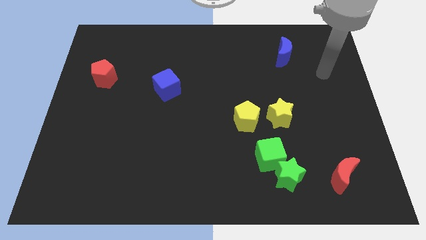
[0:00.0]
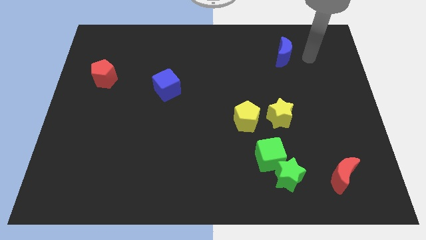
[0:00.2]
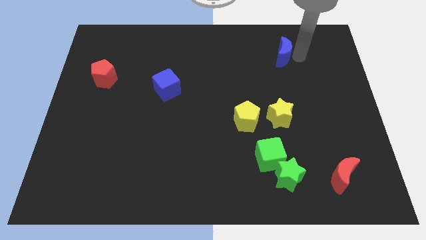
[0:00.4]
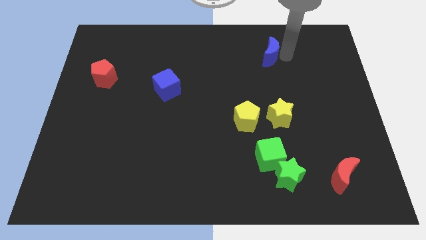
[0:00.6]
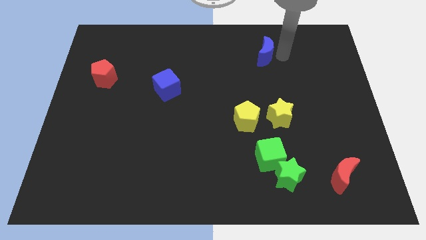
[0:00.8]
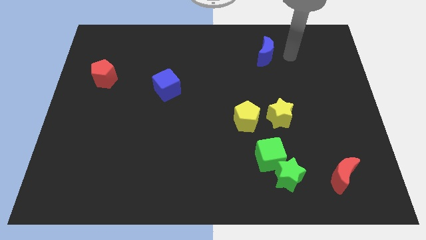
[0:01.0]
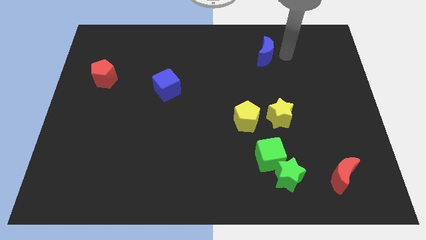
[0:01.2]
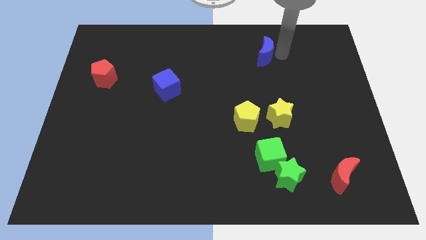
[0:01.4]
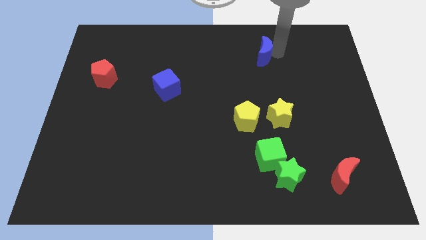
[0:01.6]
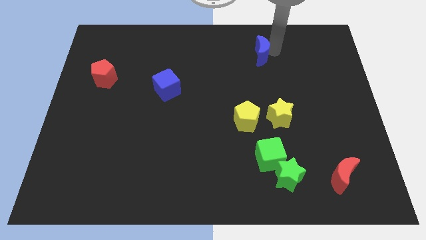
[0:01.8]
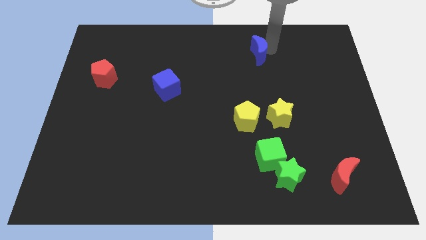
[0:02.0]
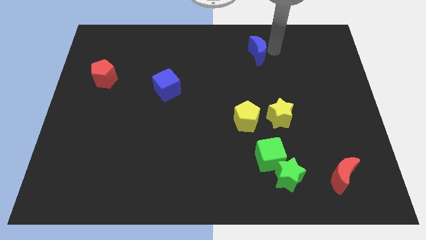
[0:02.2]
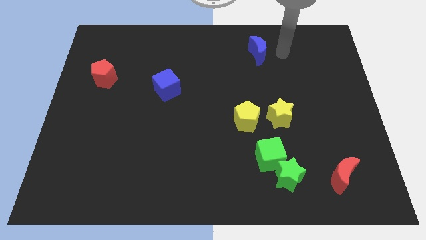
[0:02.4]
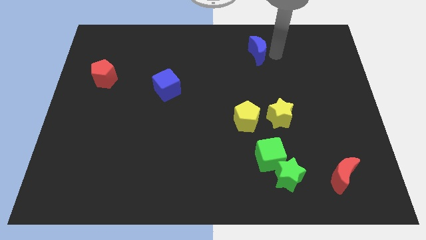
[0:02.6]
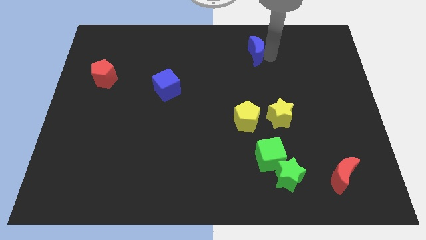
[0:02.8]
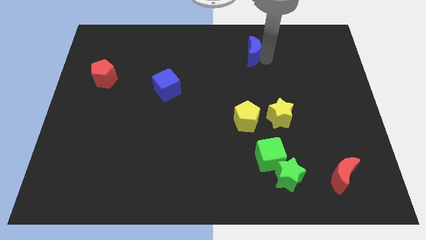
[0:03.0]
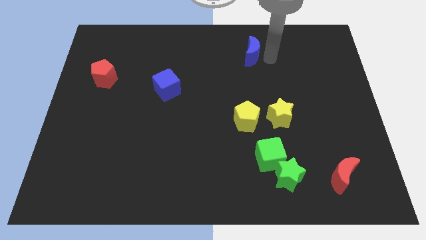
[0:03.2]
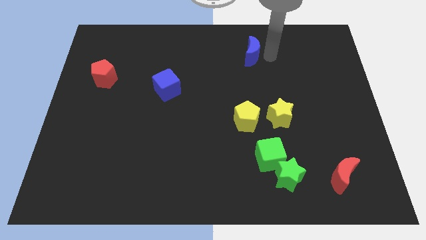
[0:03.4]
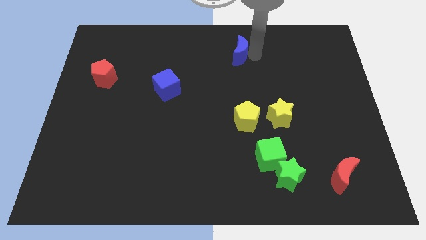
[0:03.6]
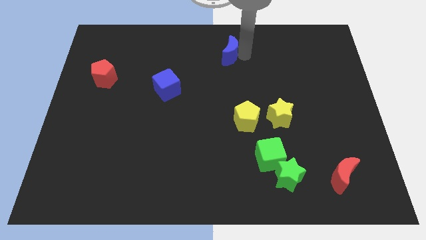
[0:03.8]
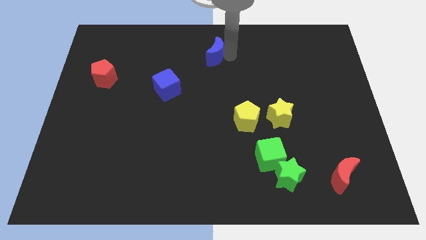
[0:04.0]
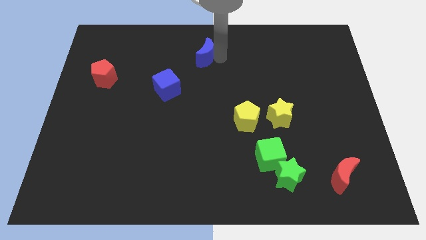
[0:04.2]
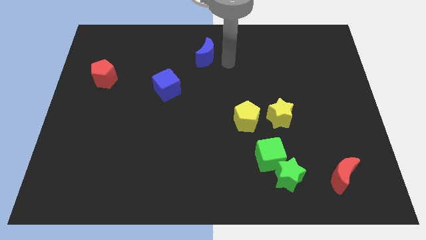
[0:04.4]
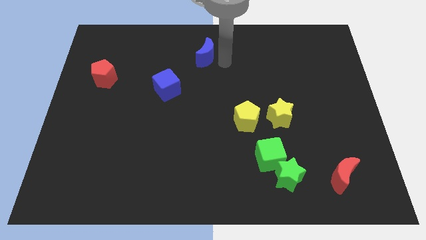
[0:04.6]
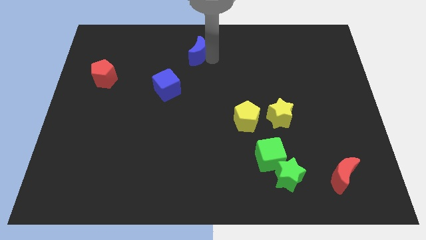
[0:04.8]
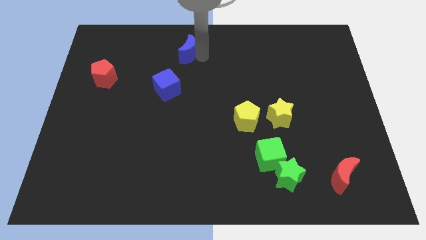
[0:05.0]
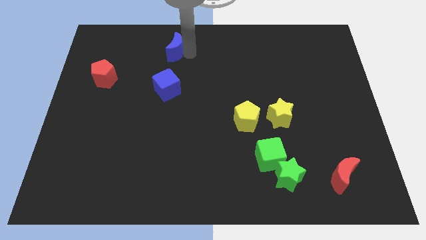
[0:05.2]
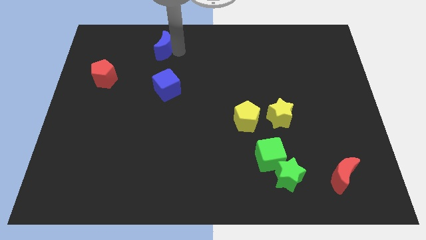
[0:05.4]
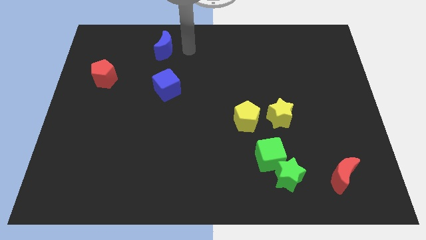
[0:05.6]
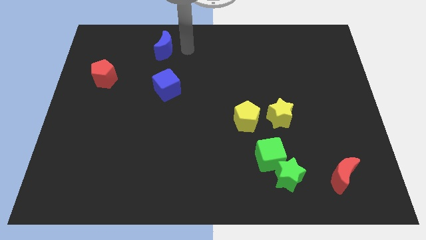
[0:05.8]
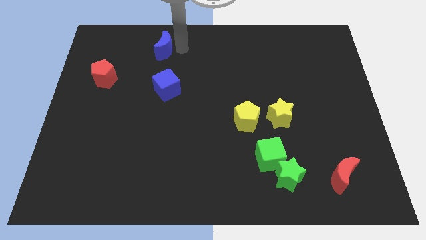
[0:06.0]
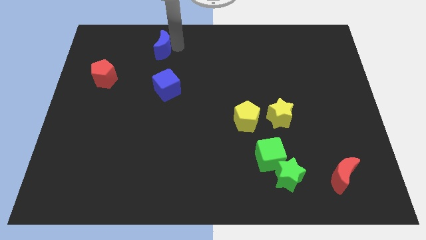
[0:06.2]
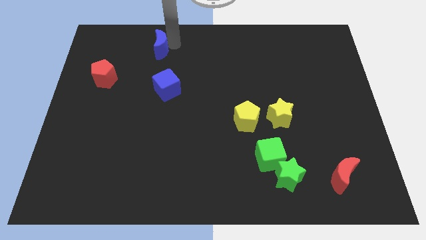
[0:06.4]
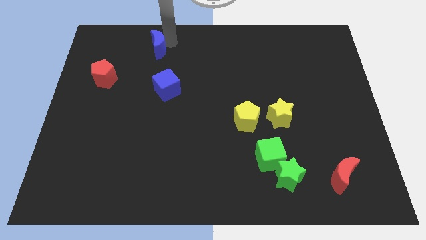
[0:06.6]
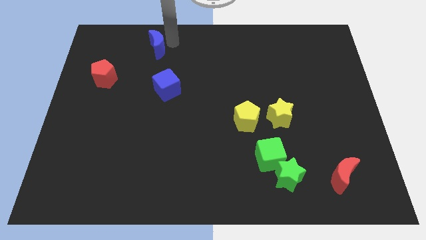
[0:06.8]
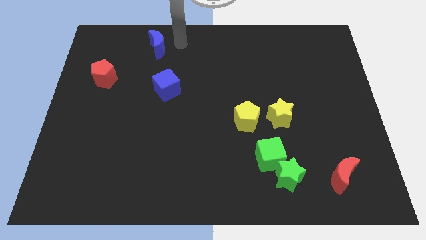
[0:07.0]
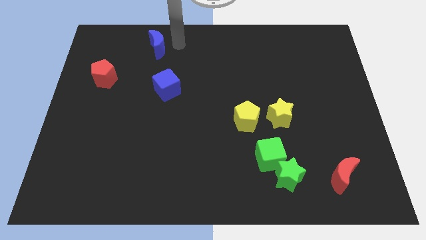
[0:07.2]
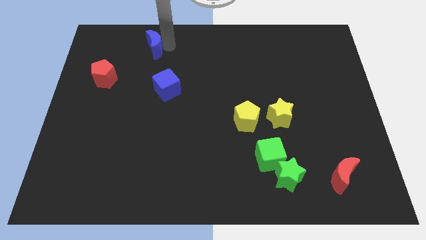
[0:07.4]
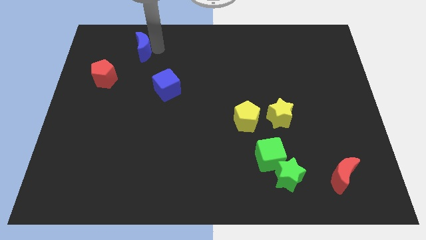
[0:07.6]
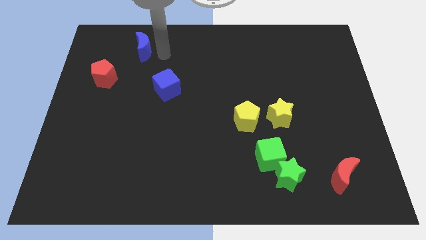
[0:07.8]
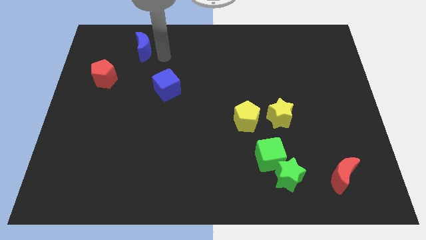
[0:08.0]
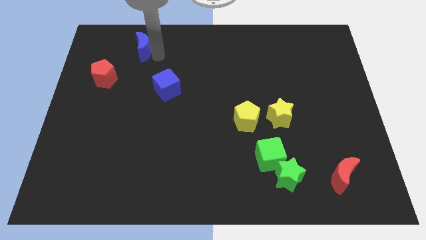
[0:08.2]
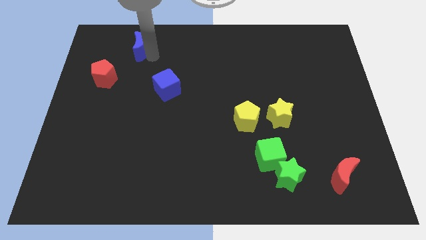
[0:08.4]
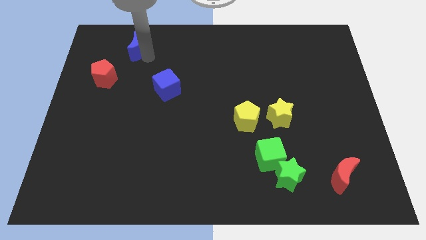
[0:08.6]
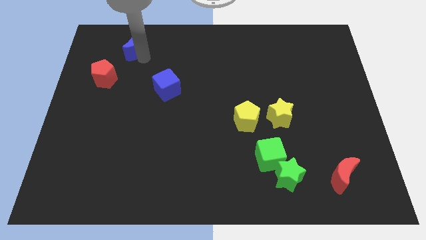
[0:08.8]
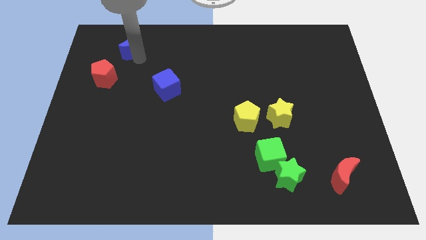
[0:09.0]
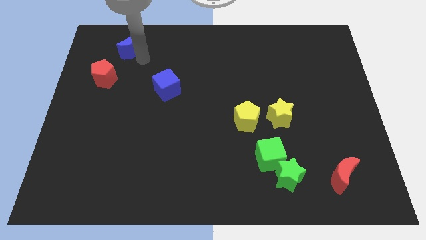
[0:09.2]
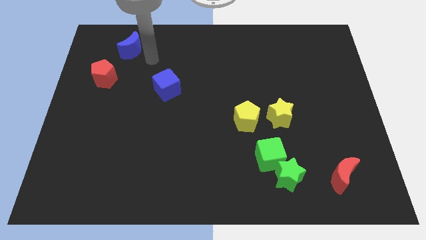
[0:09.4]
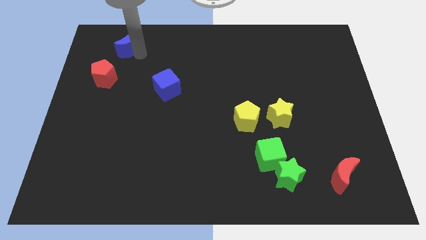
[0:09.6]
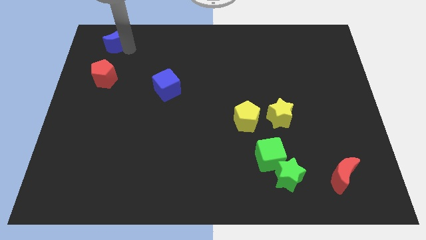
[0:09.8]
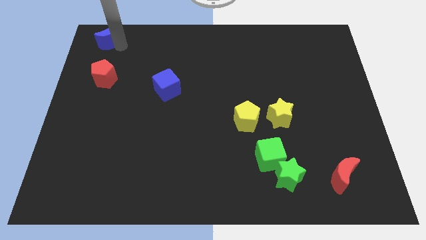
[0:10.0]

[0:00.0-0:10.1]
push the blue moon to the top left corner

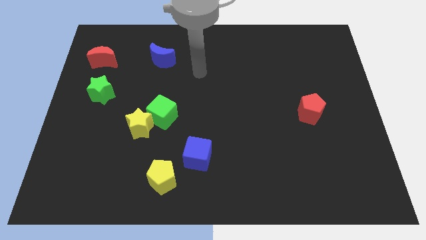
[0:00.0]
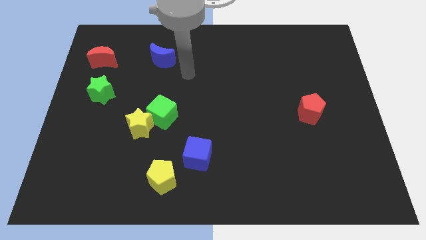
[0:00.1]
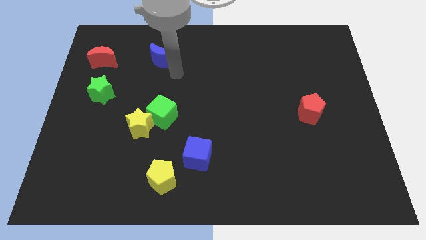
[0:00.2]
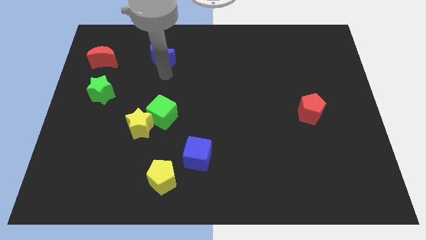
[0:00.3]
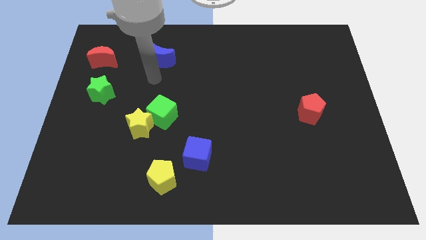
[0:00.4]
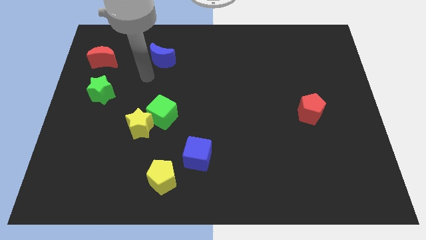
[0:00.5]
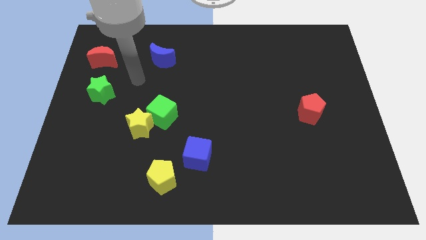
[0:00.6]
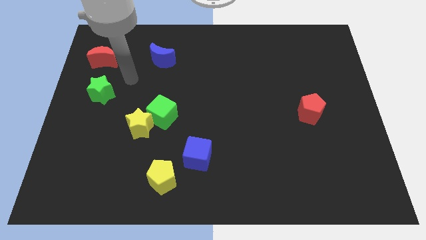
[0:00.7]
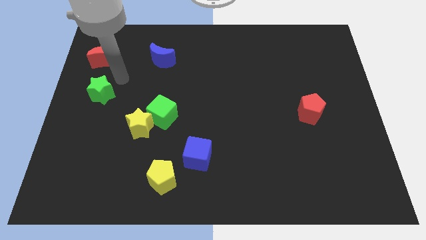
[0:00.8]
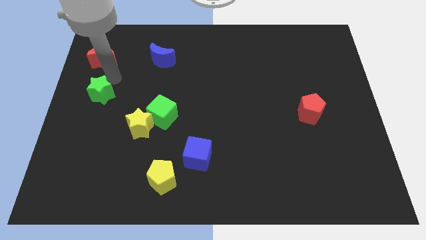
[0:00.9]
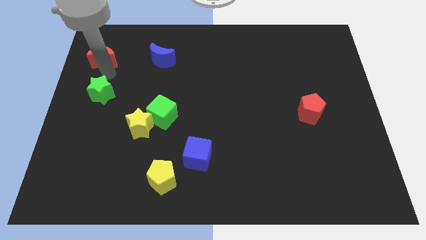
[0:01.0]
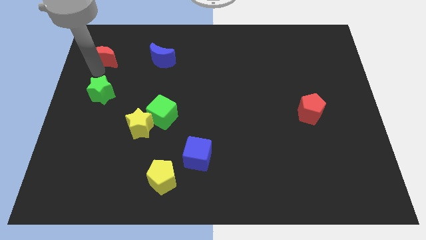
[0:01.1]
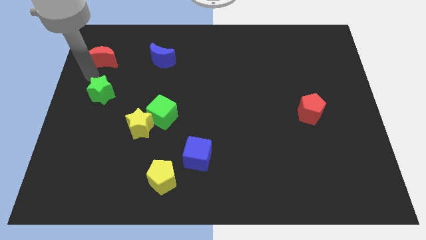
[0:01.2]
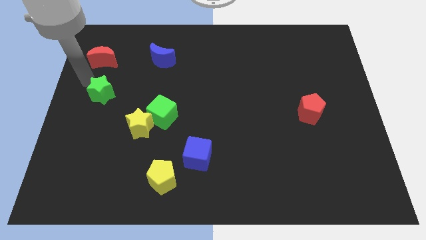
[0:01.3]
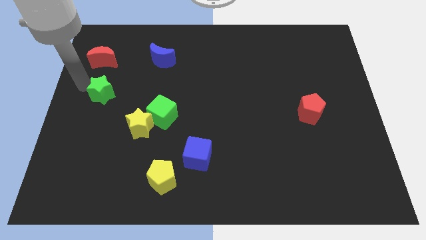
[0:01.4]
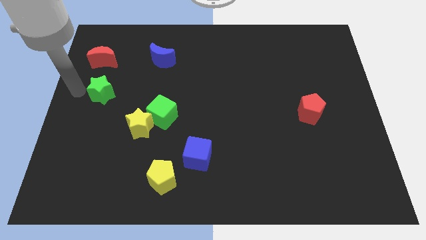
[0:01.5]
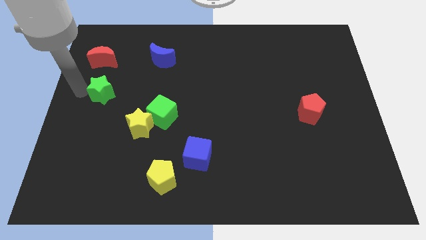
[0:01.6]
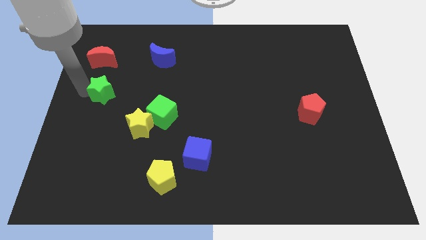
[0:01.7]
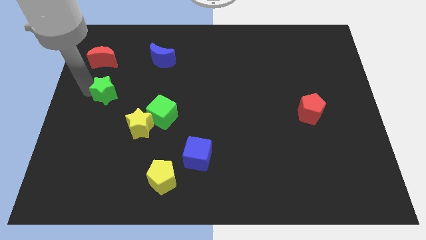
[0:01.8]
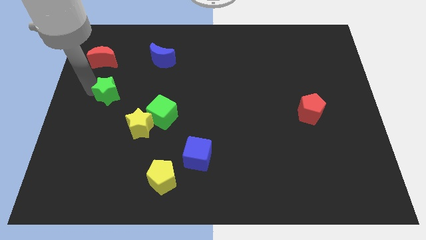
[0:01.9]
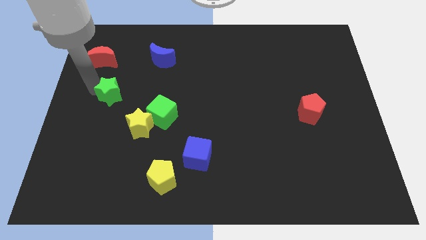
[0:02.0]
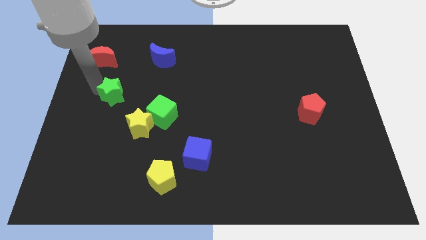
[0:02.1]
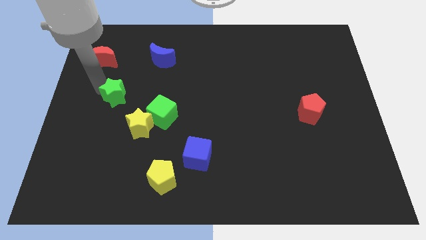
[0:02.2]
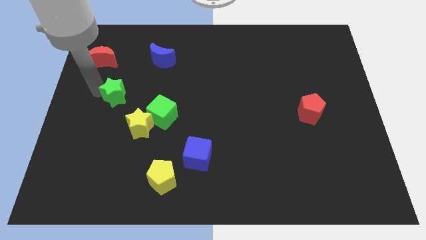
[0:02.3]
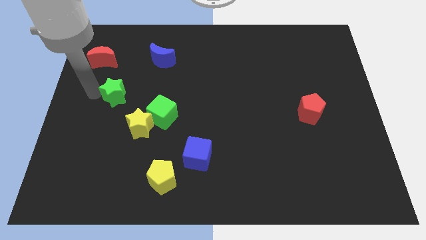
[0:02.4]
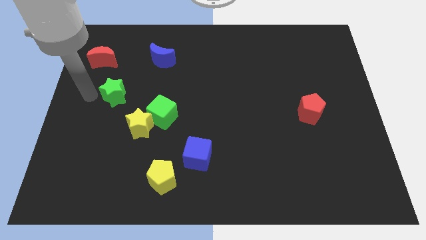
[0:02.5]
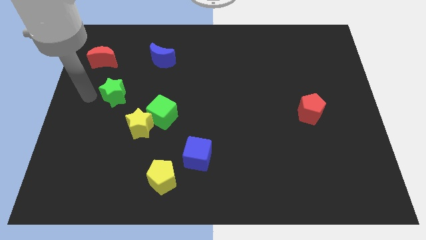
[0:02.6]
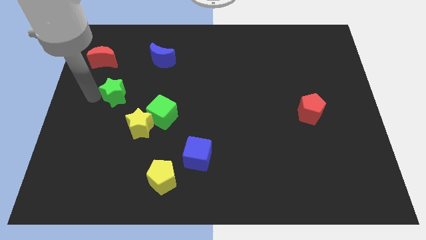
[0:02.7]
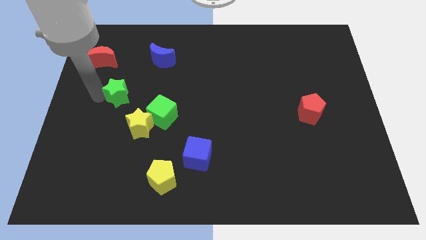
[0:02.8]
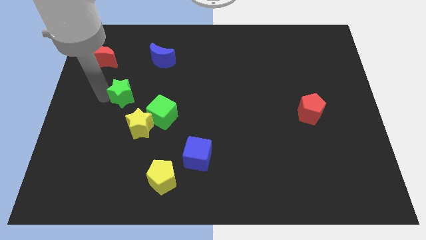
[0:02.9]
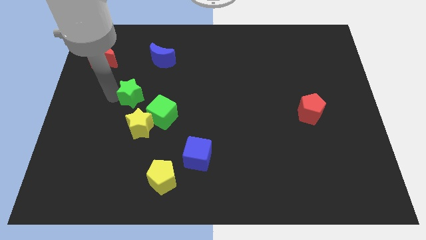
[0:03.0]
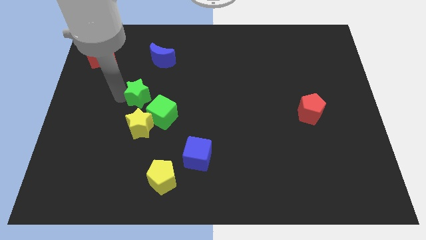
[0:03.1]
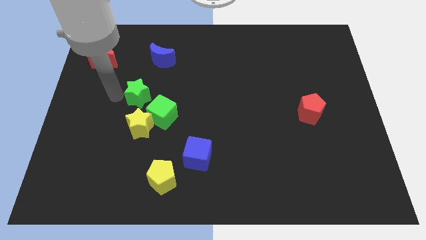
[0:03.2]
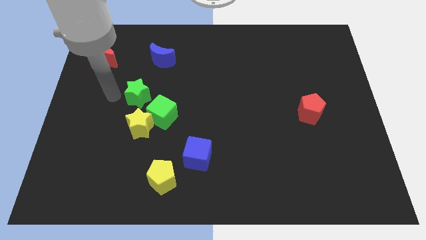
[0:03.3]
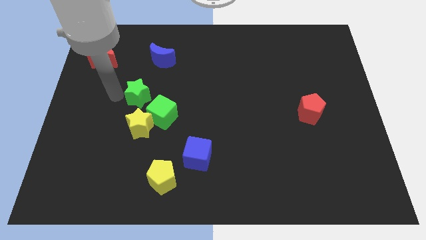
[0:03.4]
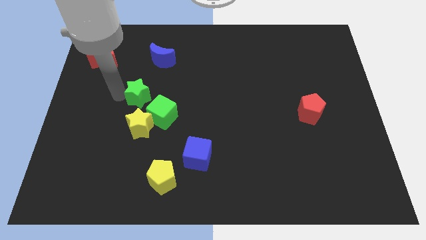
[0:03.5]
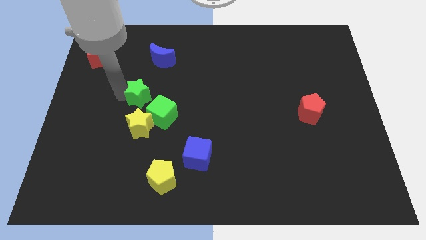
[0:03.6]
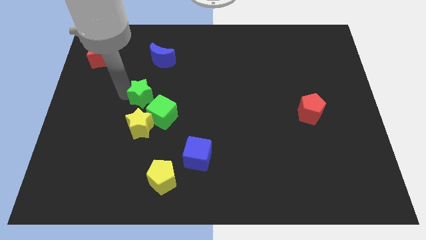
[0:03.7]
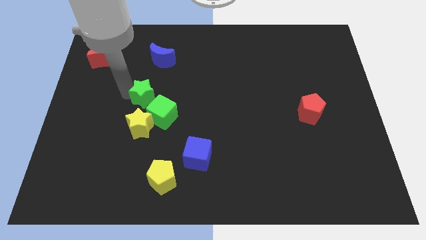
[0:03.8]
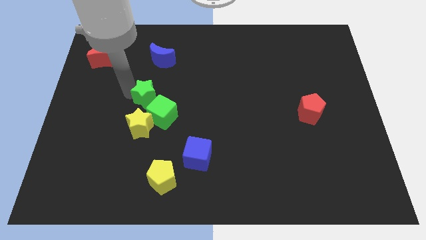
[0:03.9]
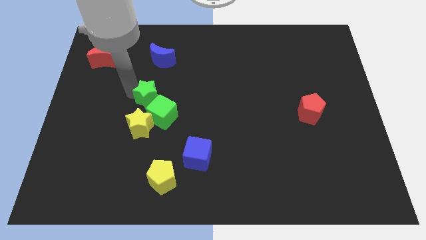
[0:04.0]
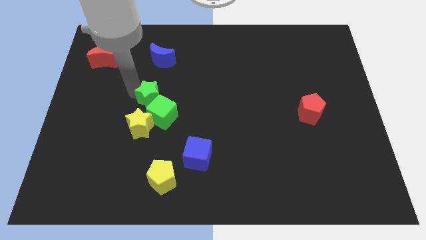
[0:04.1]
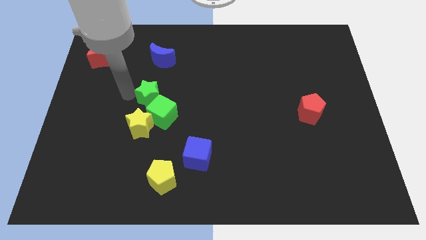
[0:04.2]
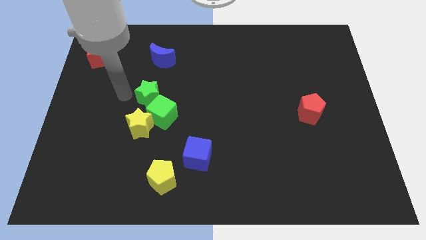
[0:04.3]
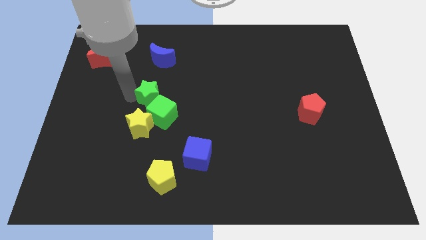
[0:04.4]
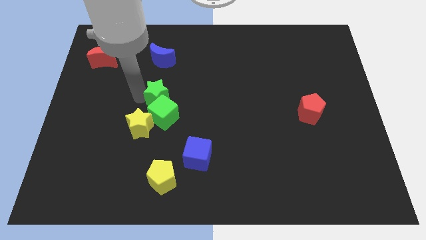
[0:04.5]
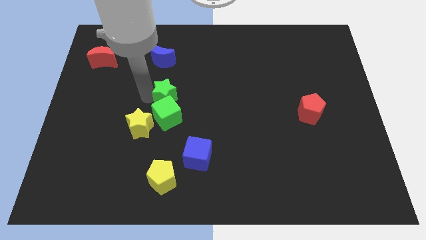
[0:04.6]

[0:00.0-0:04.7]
move the green star to the middle of the board
